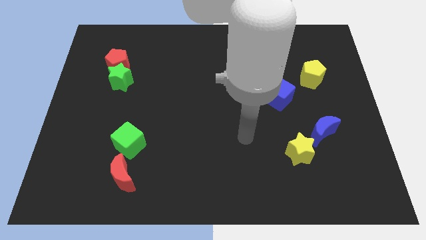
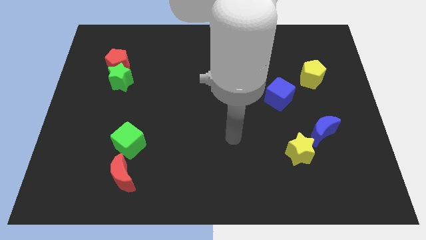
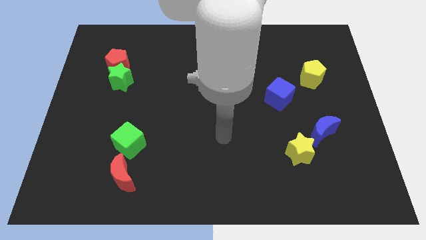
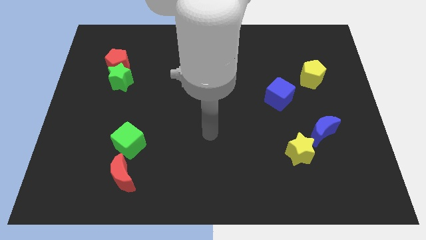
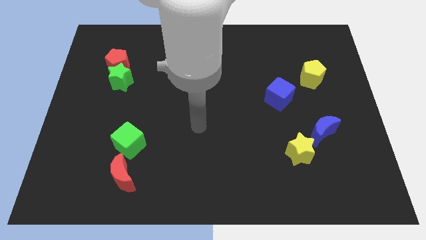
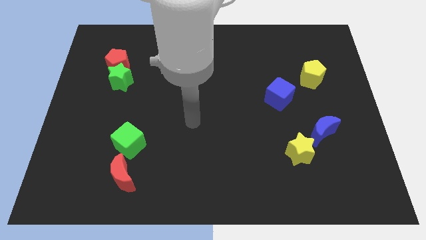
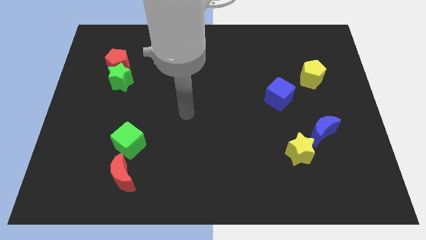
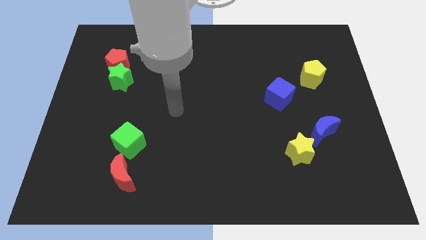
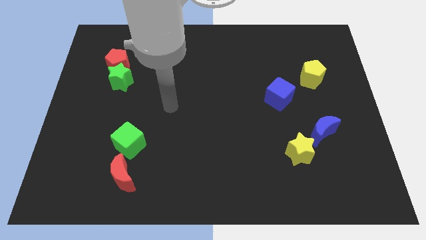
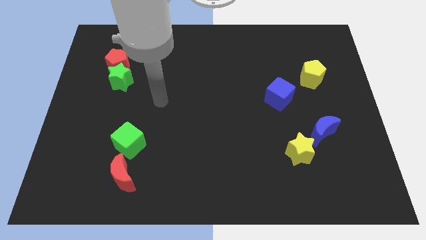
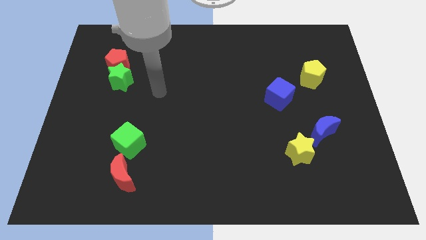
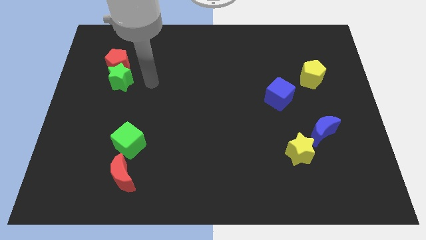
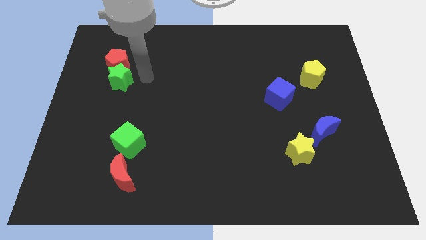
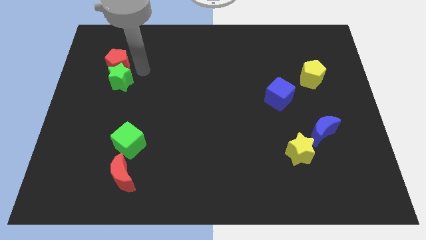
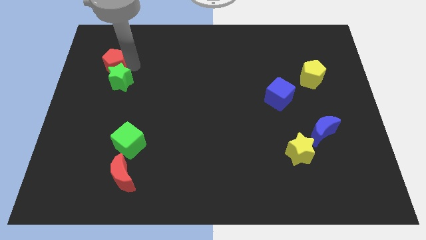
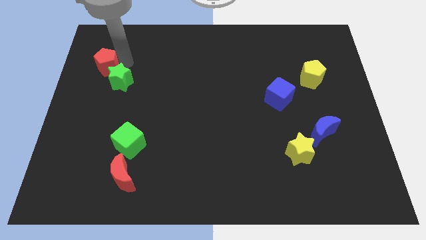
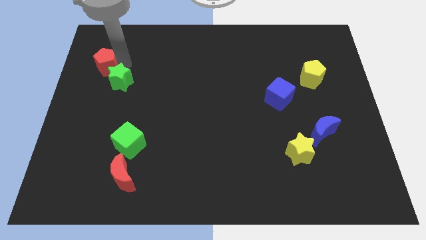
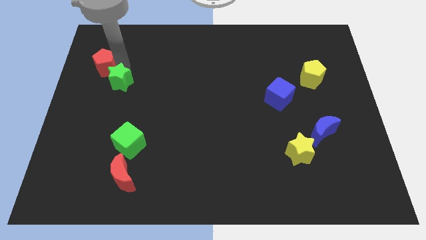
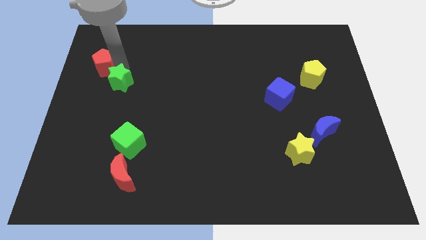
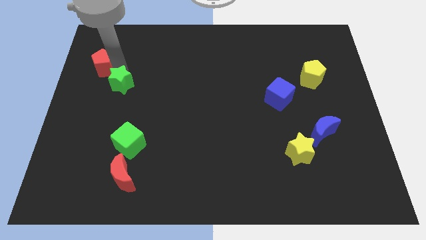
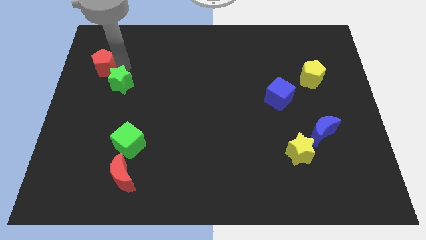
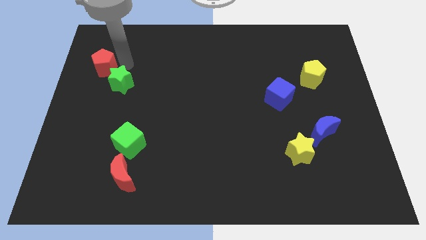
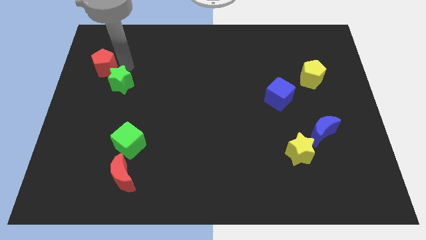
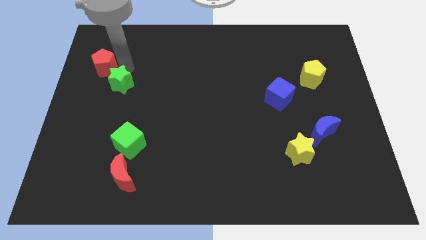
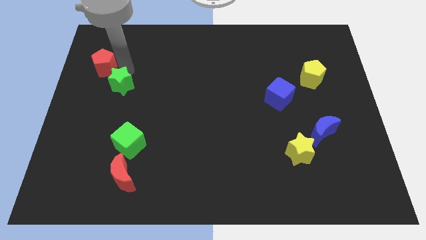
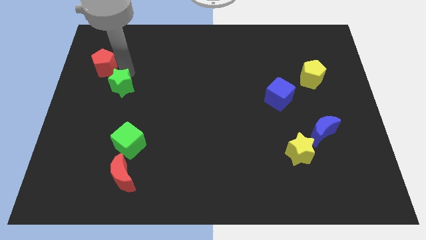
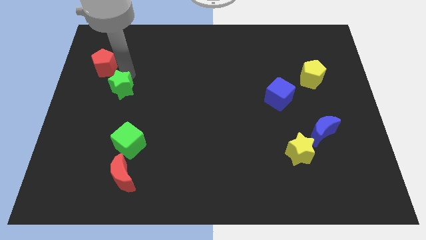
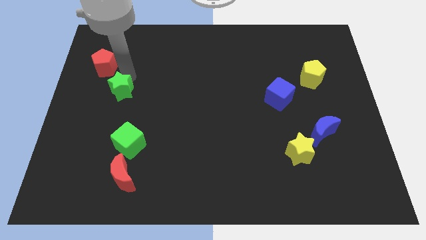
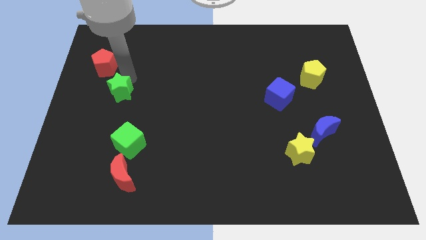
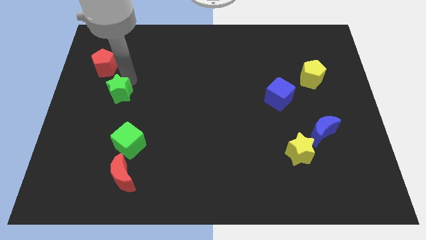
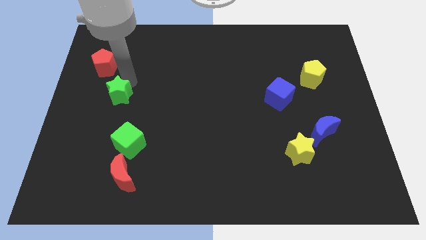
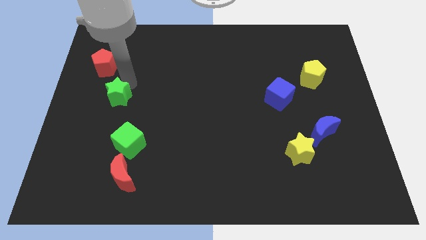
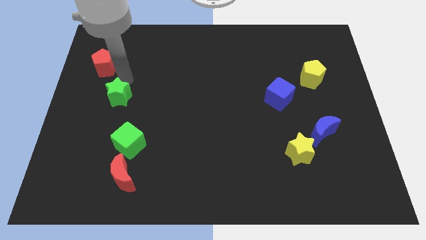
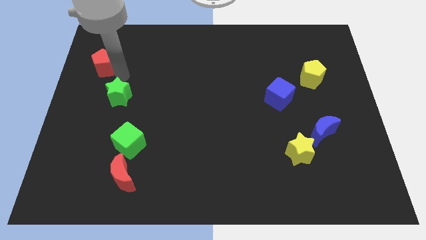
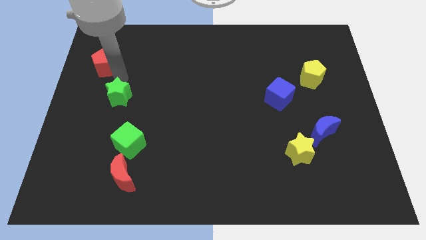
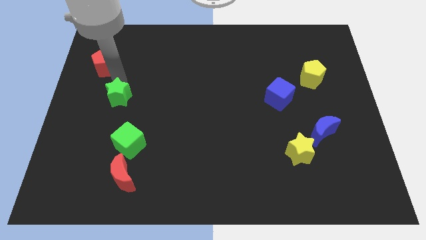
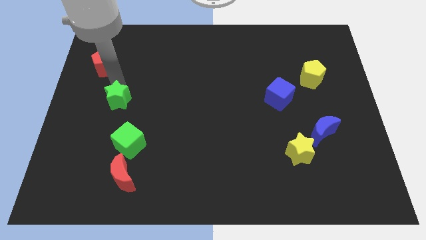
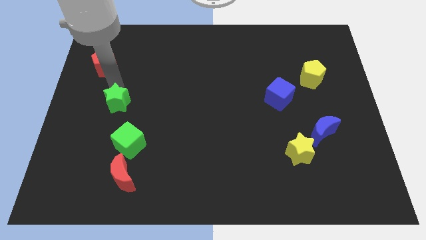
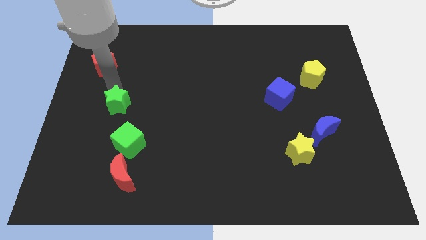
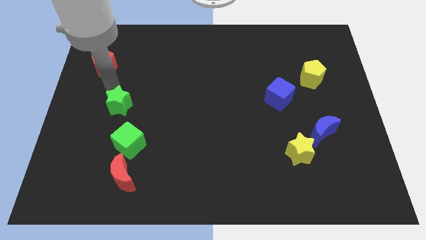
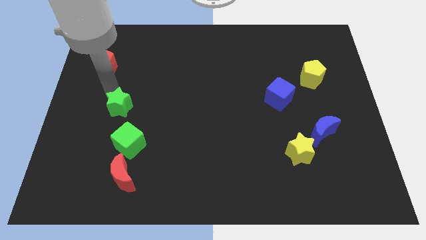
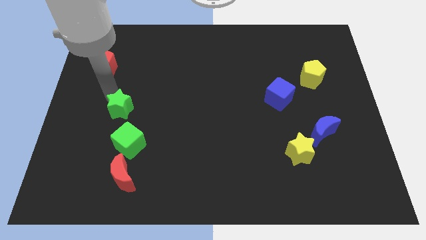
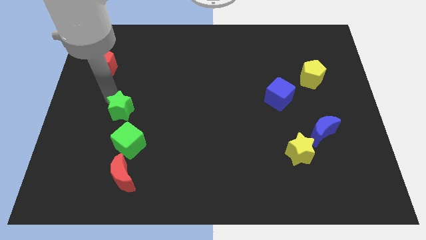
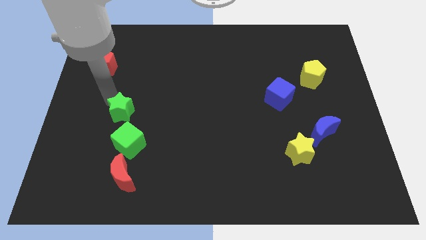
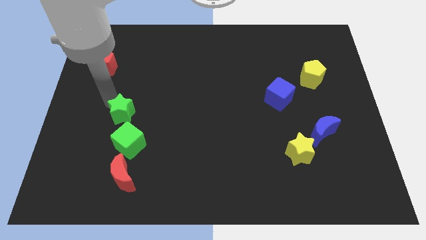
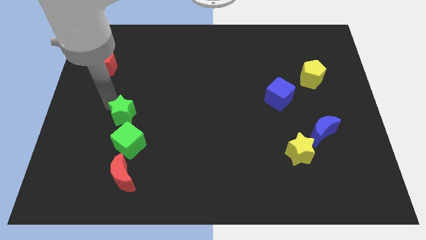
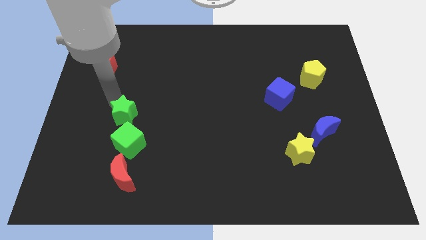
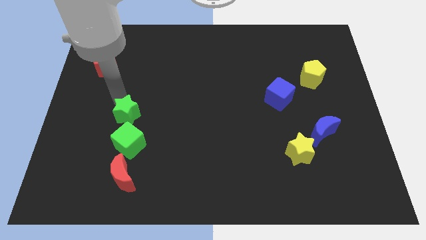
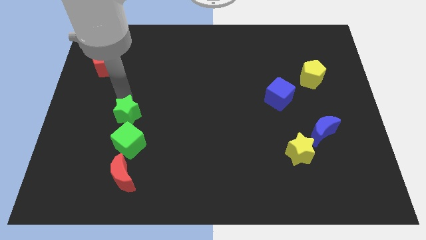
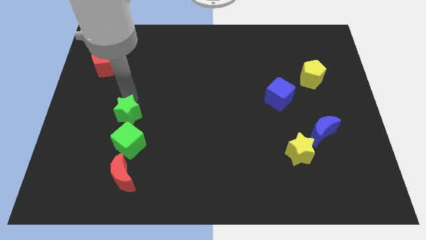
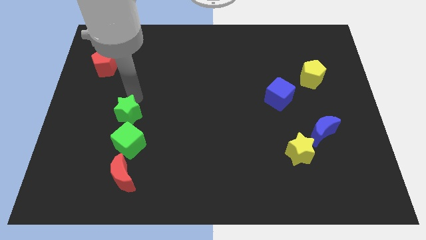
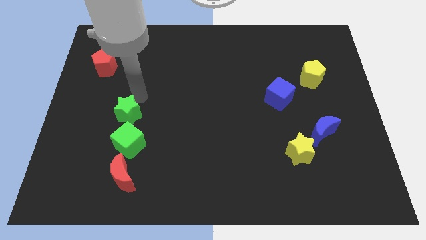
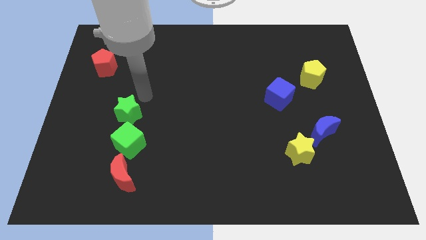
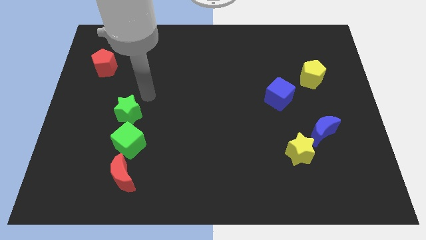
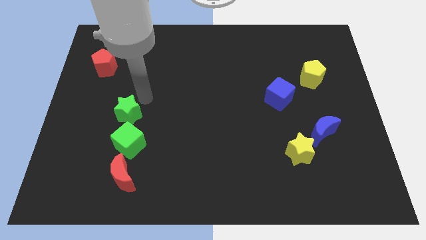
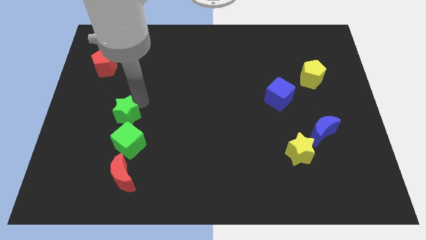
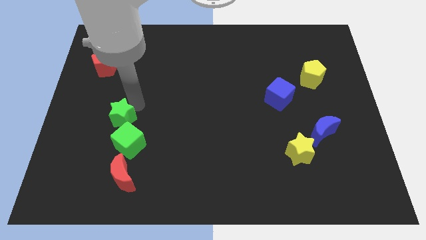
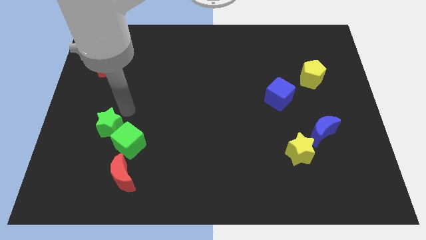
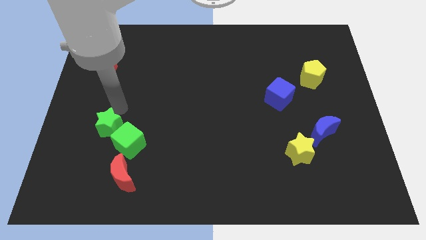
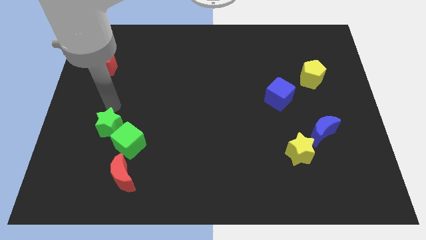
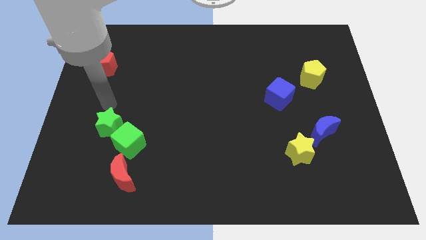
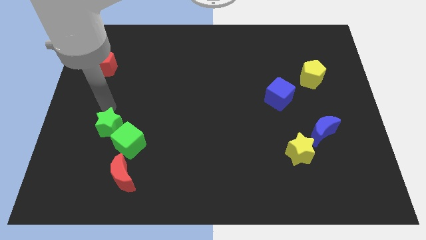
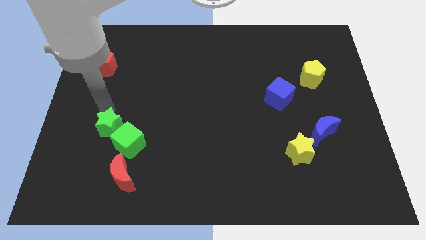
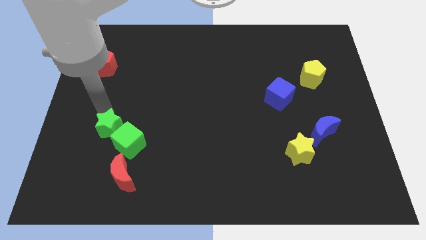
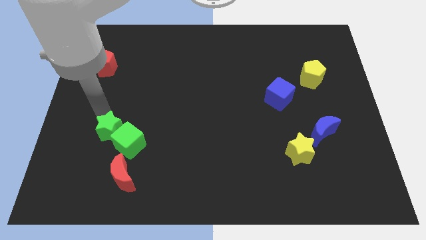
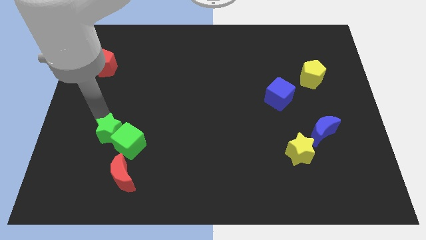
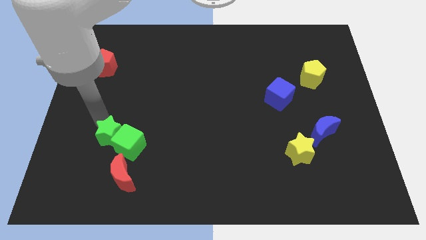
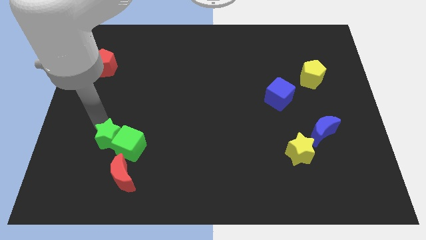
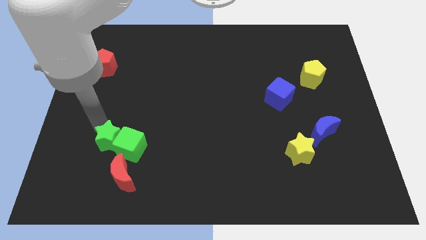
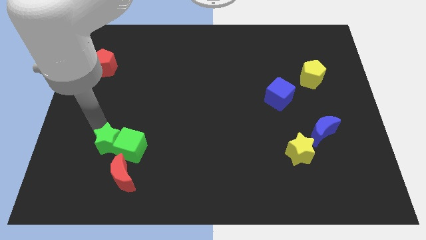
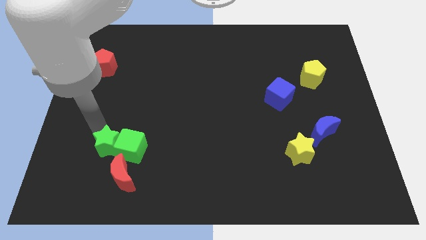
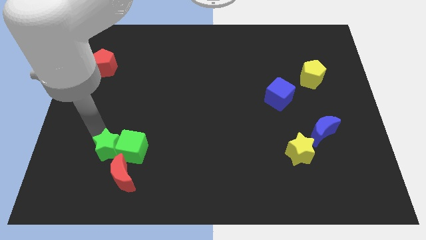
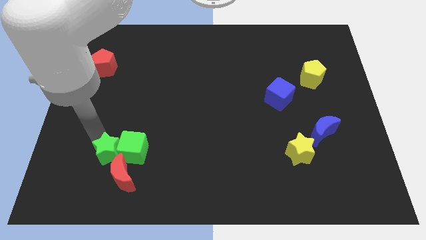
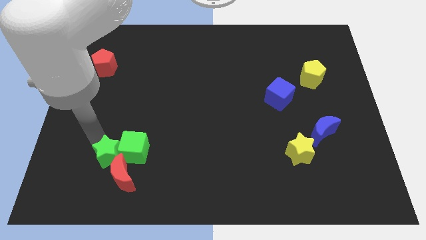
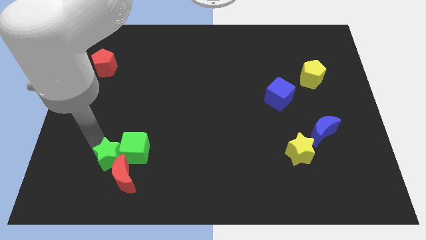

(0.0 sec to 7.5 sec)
put the green star close to the red moon
